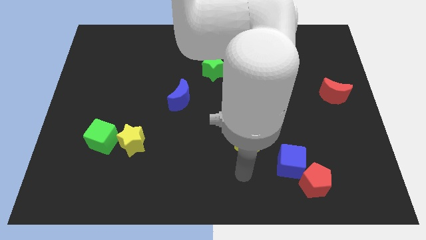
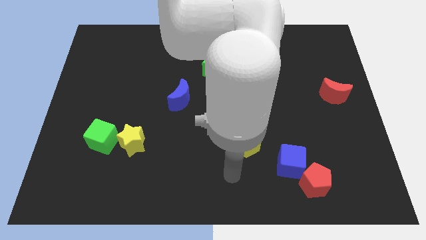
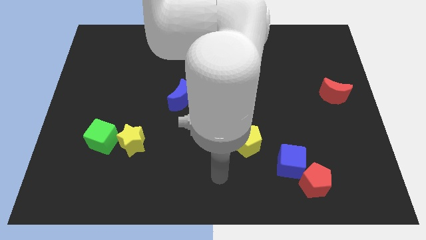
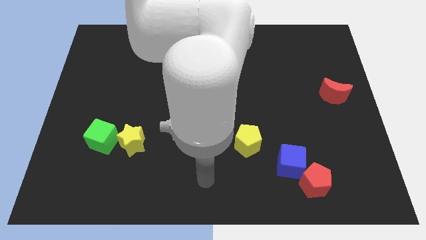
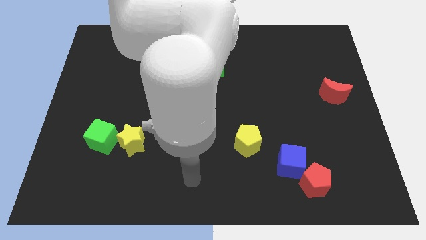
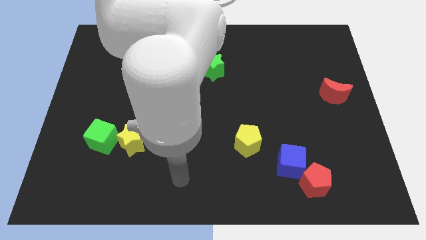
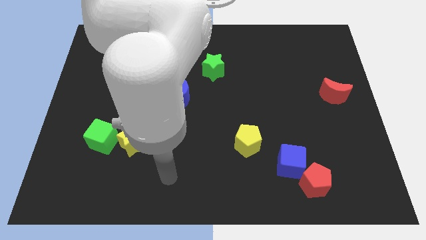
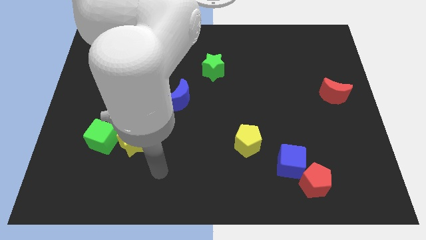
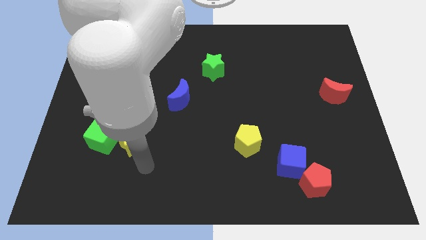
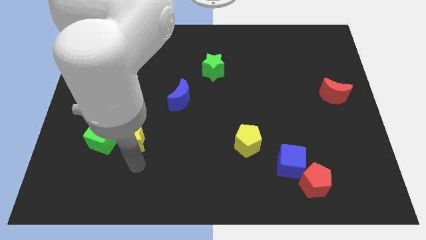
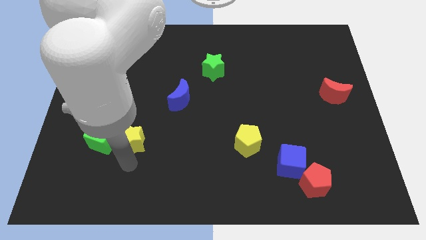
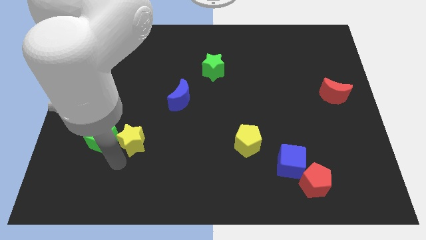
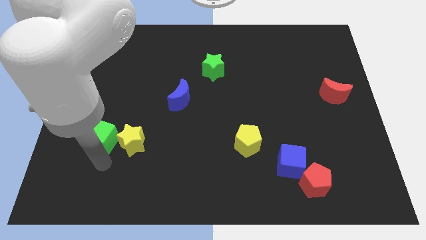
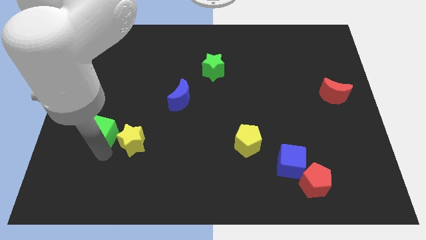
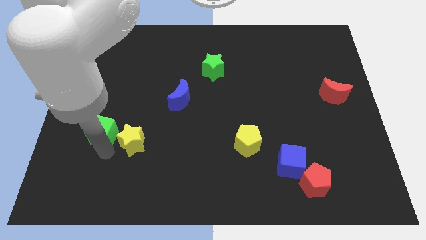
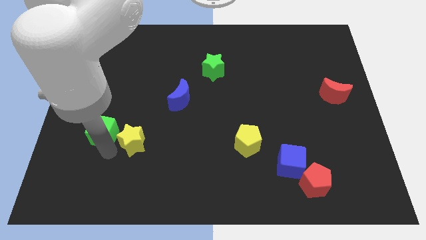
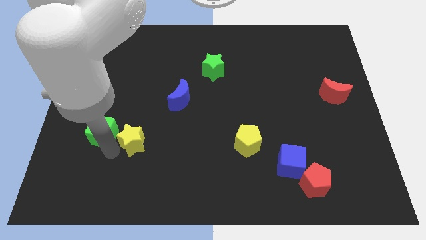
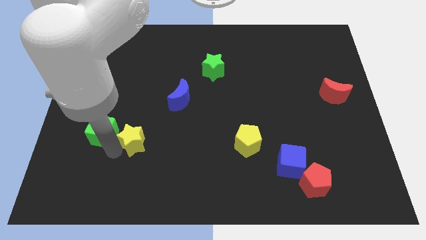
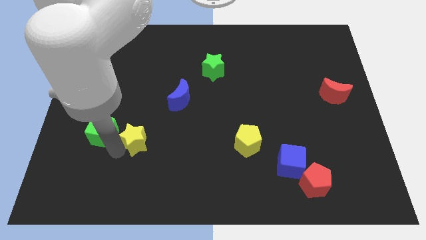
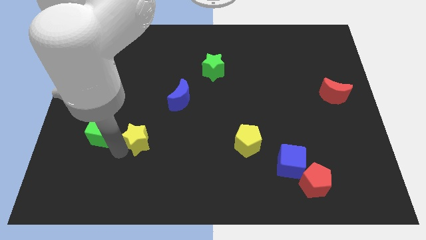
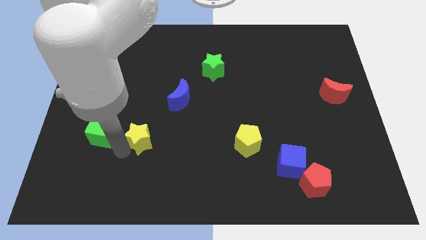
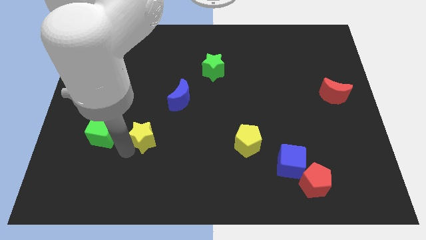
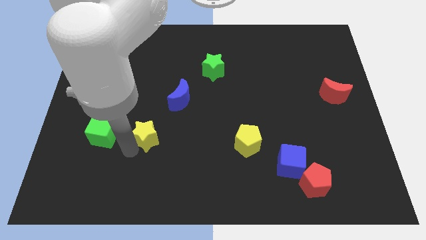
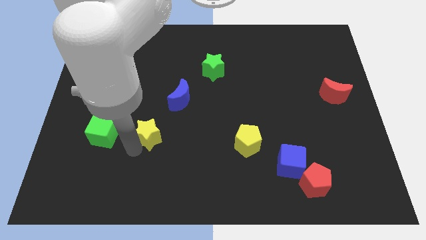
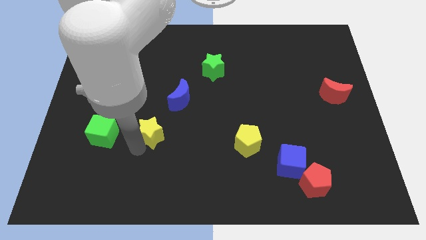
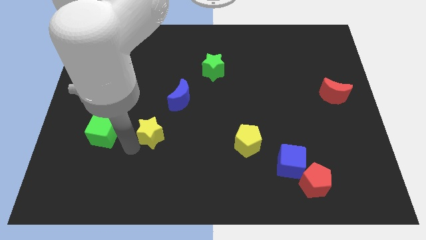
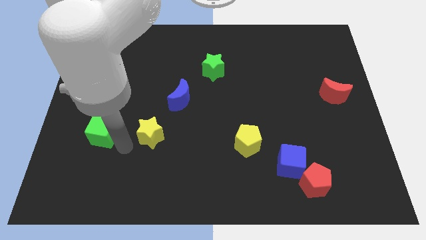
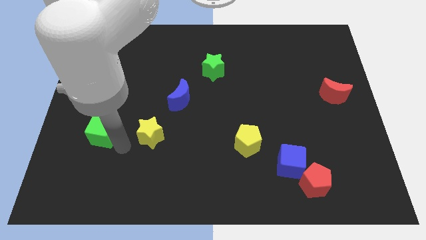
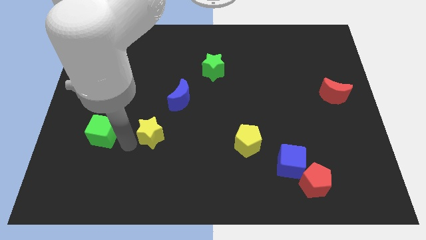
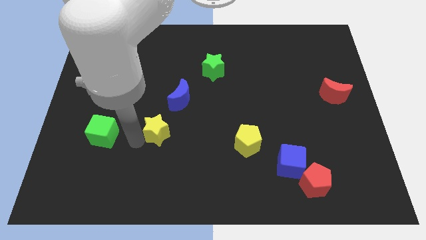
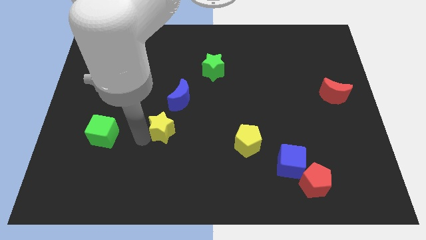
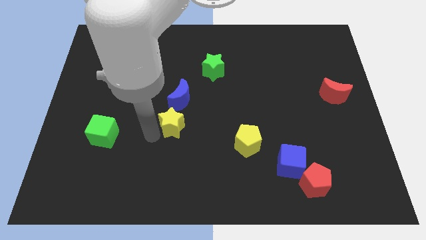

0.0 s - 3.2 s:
slide the yellow star up and then right a little

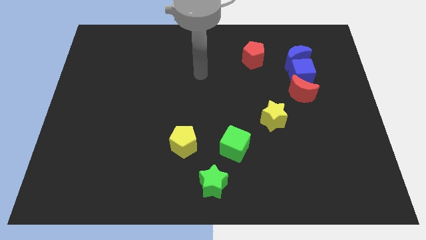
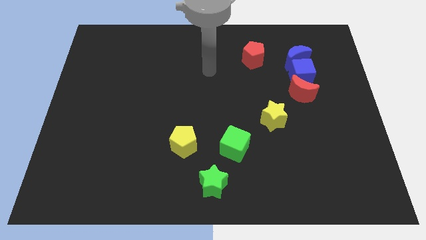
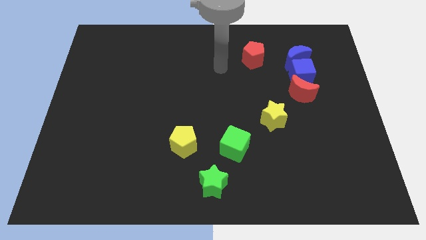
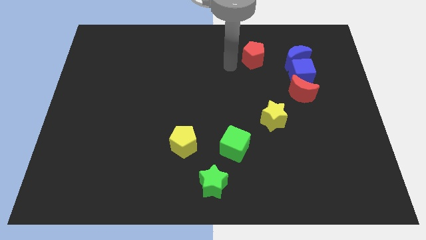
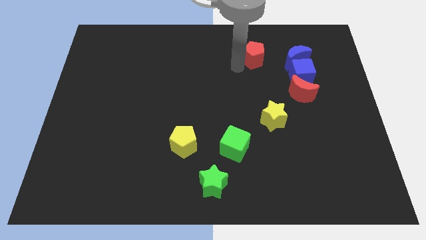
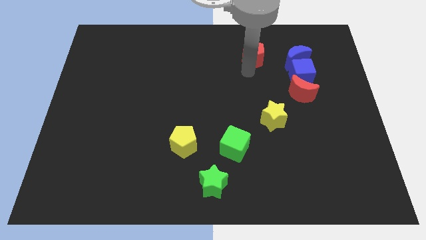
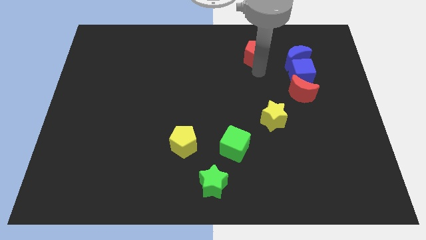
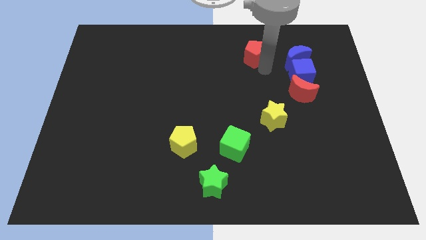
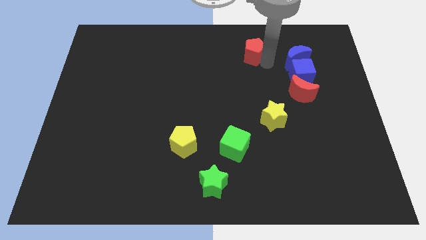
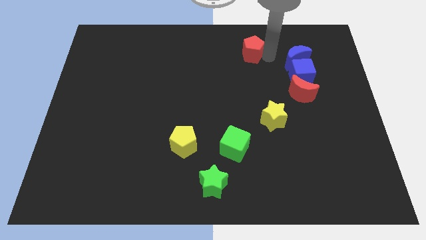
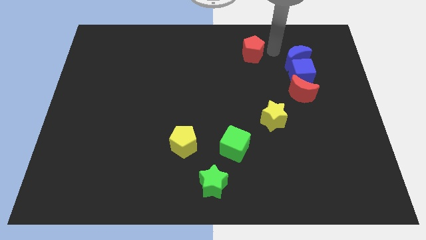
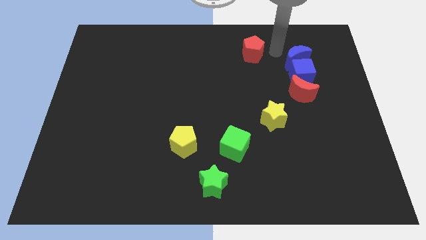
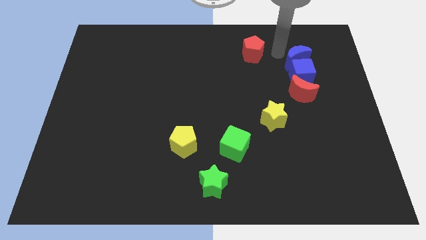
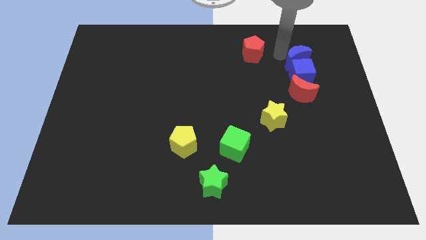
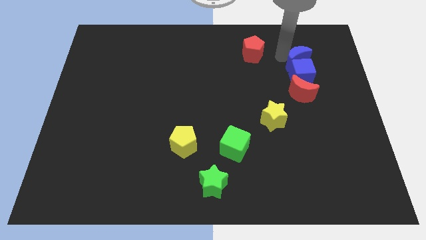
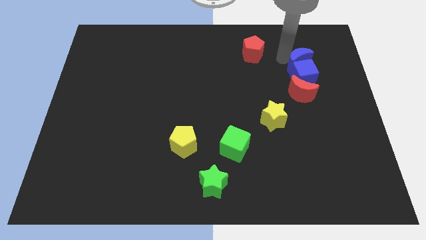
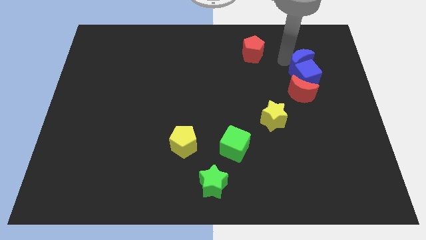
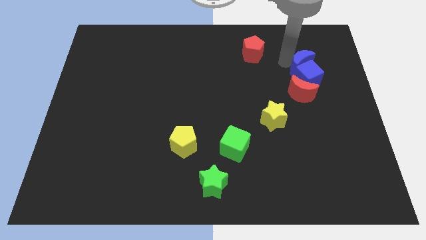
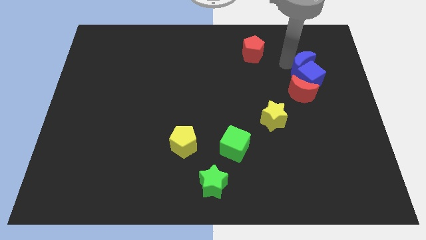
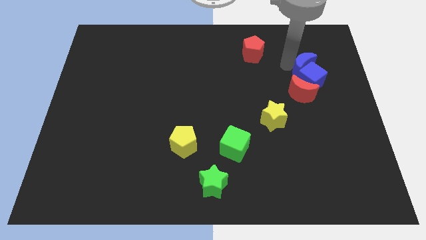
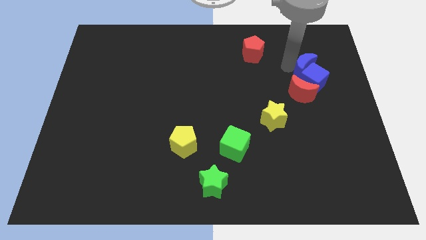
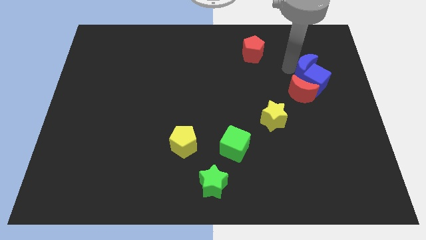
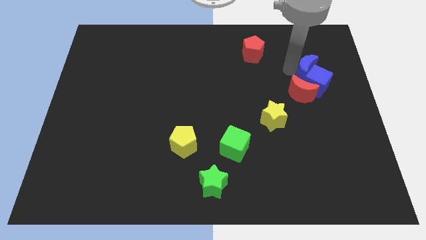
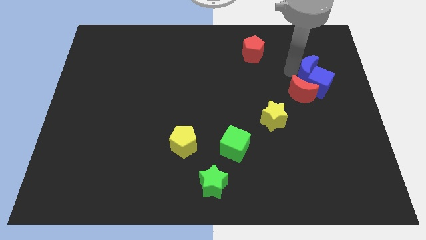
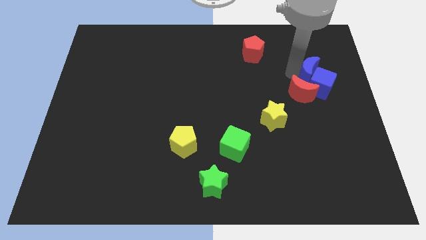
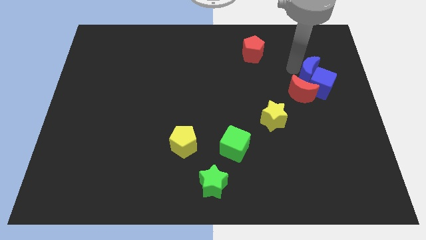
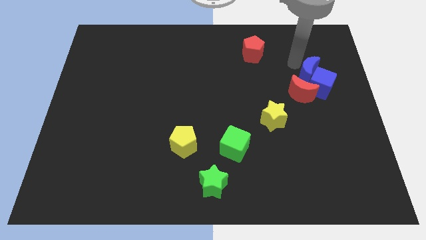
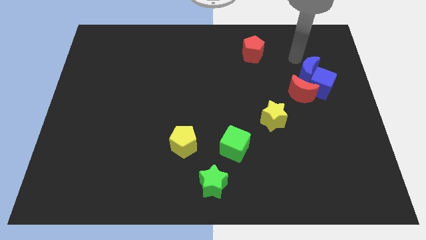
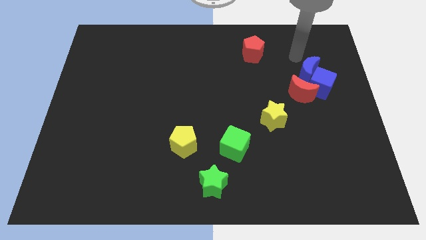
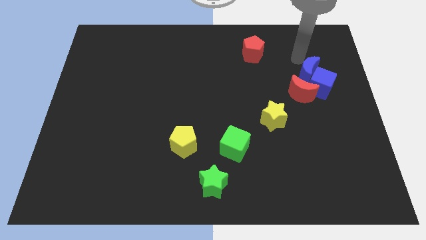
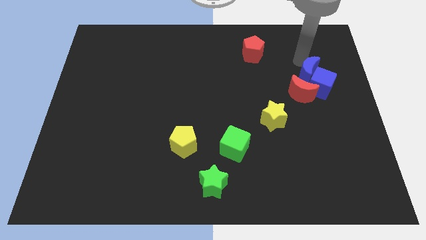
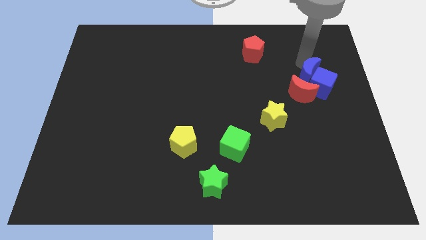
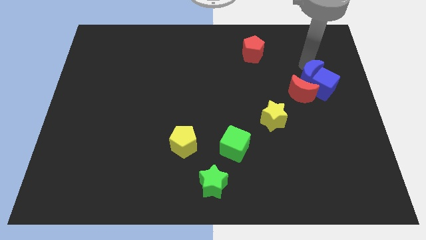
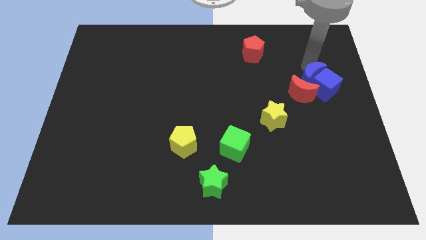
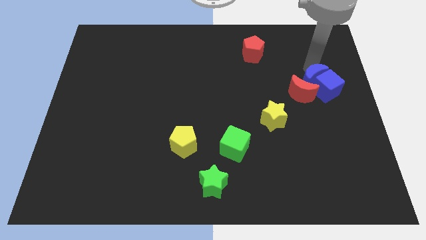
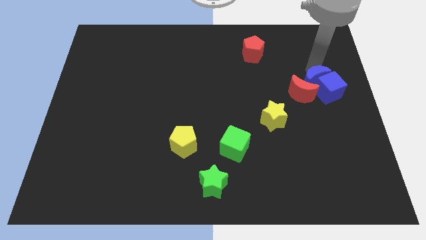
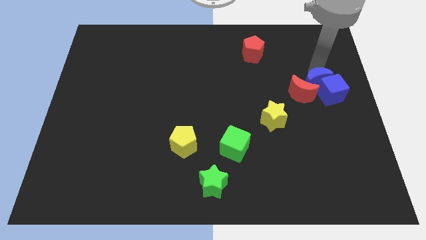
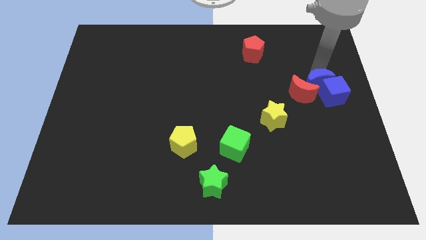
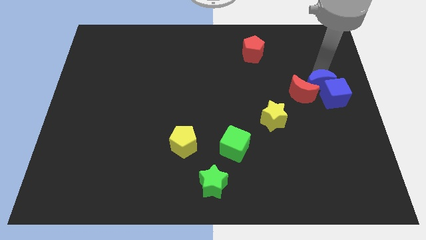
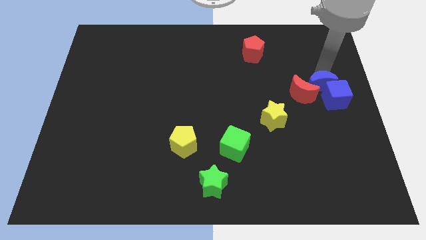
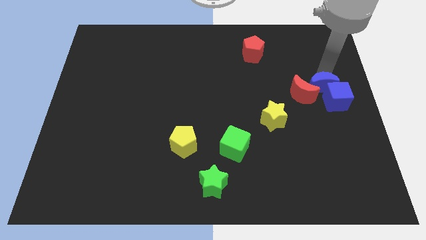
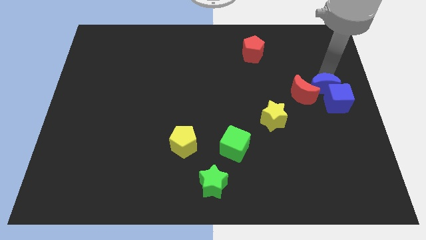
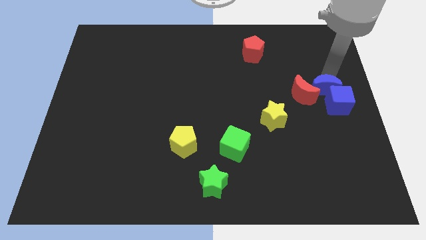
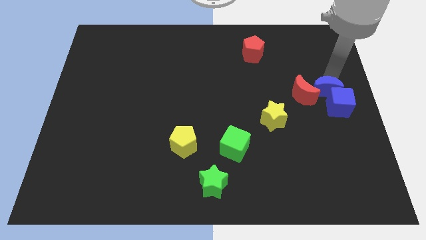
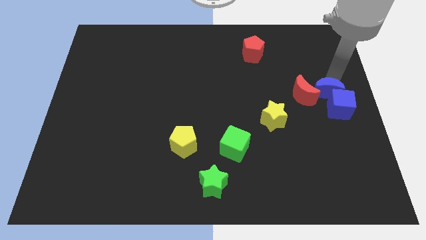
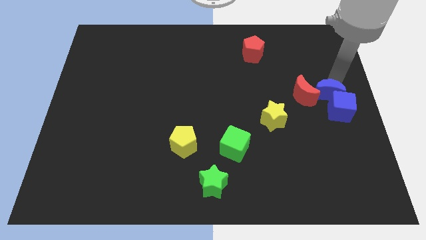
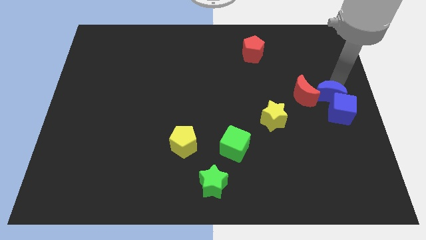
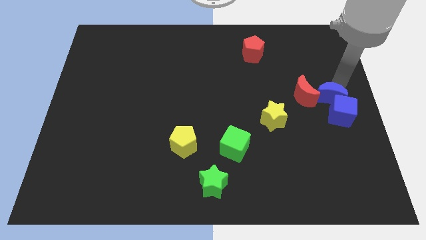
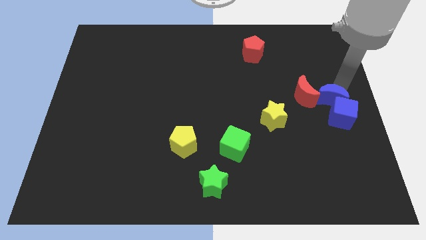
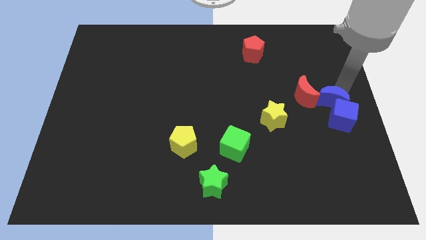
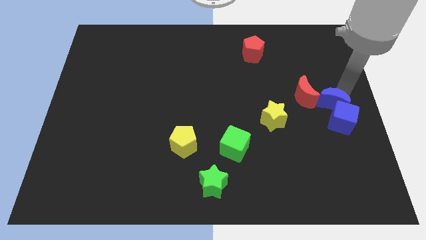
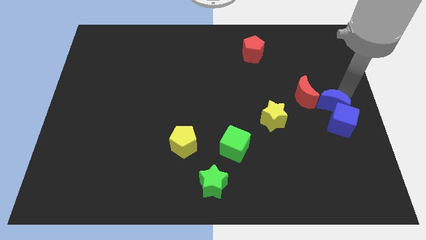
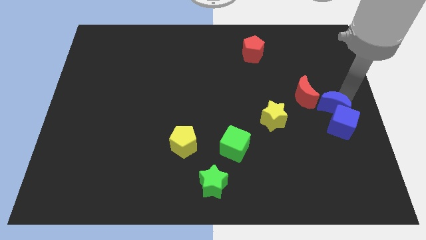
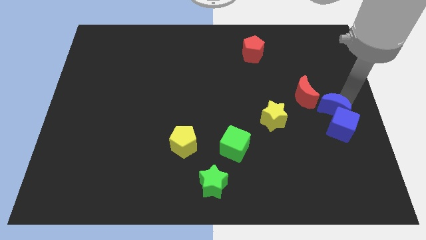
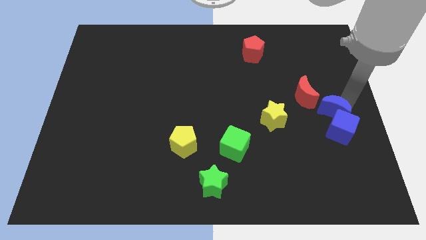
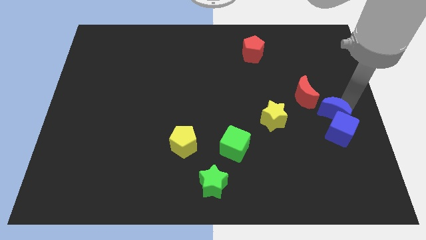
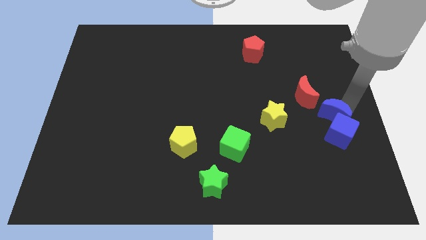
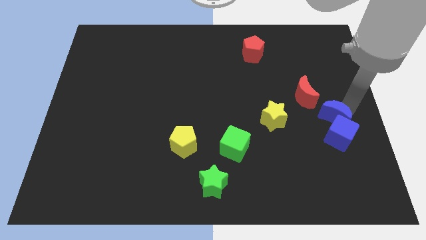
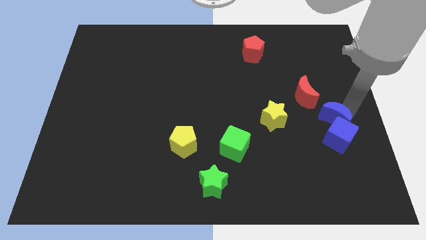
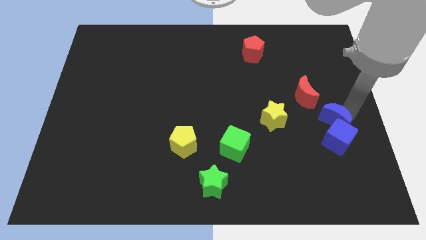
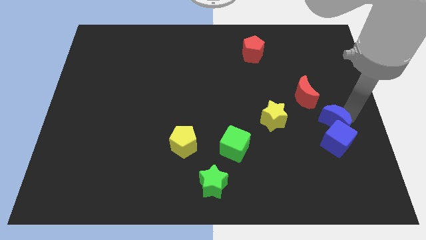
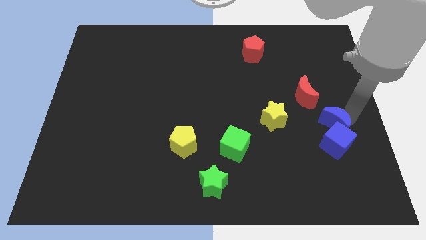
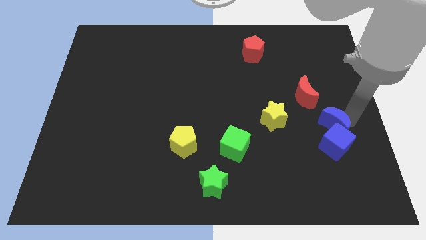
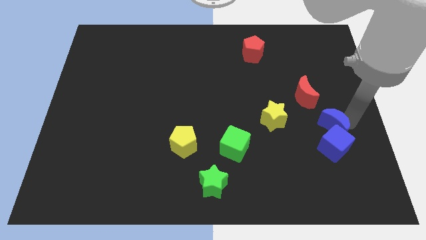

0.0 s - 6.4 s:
move the blue moon downwards
